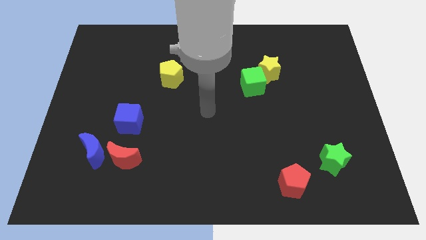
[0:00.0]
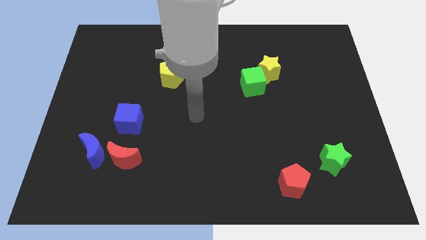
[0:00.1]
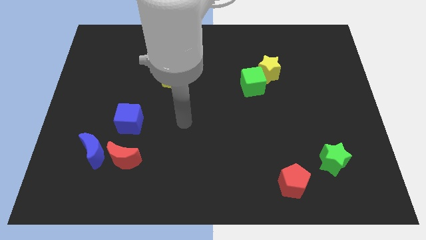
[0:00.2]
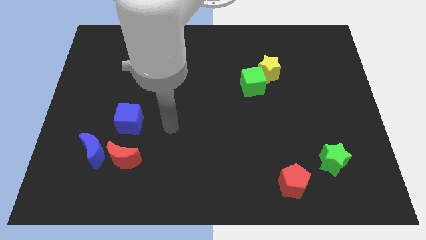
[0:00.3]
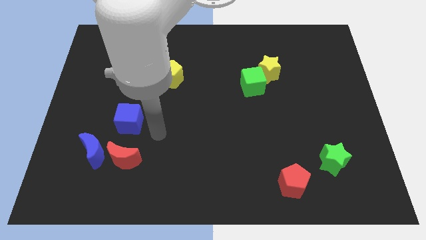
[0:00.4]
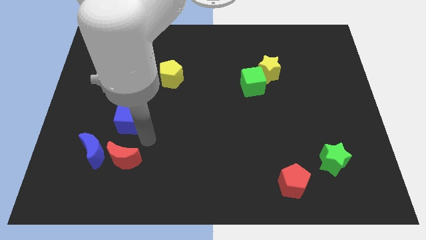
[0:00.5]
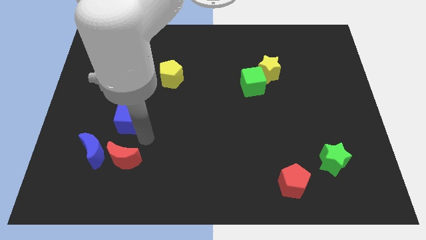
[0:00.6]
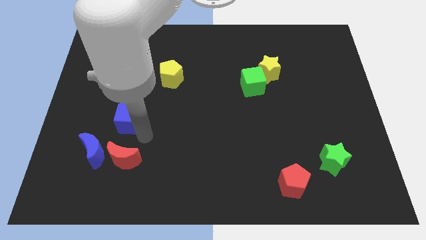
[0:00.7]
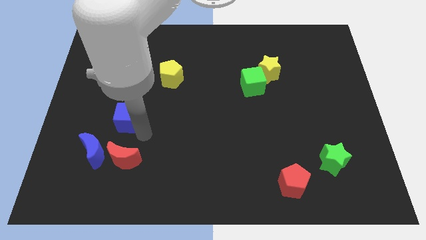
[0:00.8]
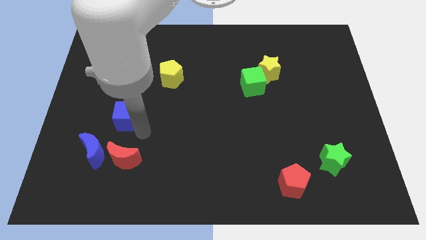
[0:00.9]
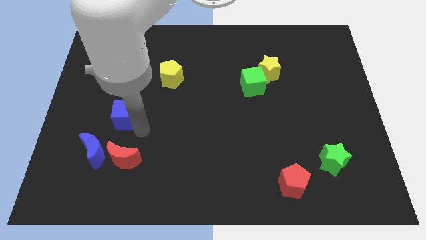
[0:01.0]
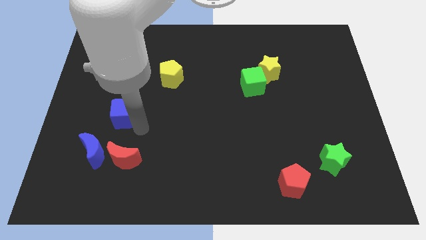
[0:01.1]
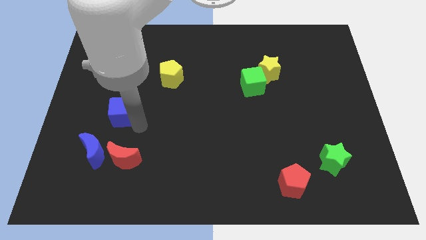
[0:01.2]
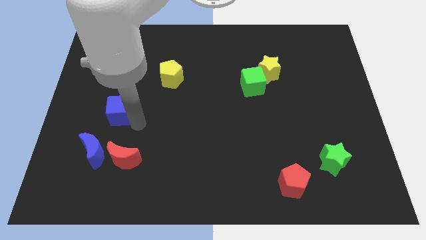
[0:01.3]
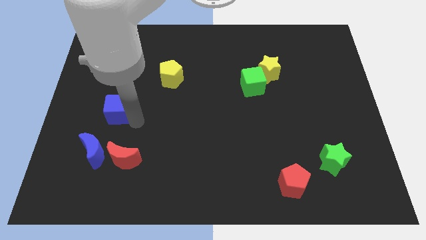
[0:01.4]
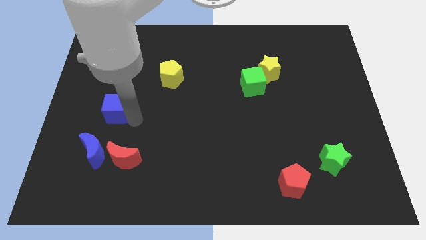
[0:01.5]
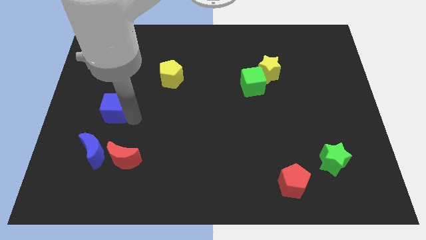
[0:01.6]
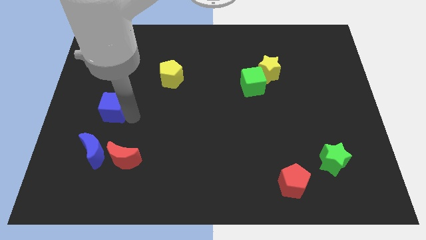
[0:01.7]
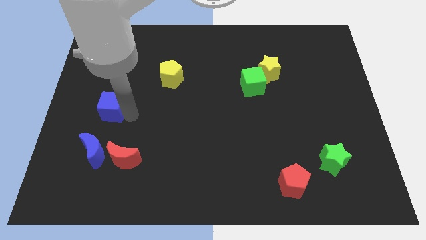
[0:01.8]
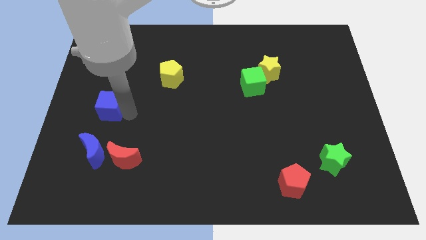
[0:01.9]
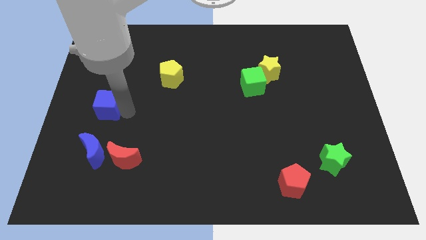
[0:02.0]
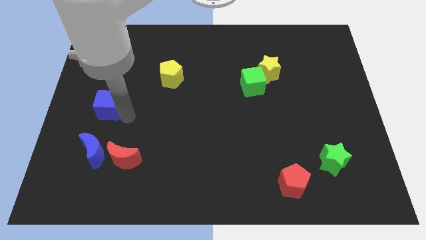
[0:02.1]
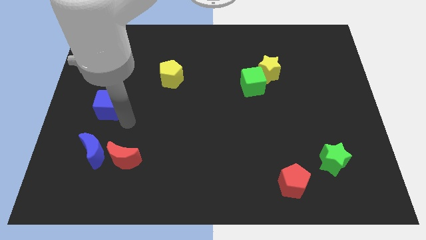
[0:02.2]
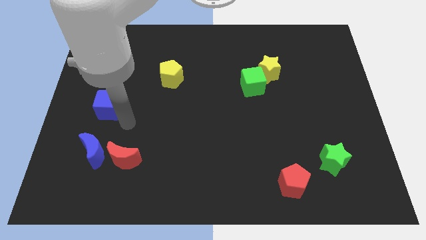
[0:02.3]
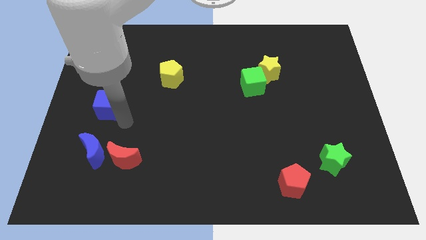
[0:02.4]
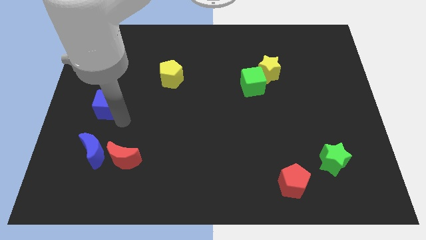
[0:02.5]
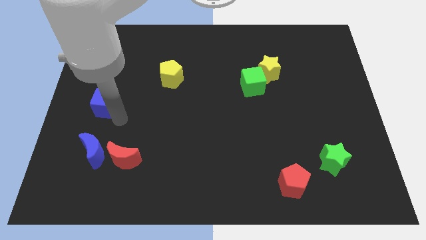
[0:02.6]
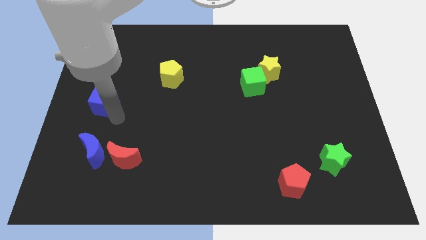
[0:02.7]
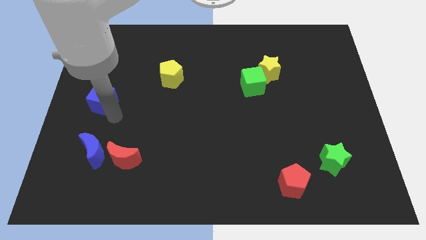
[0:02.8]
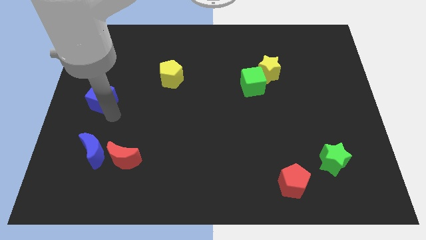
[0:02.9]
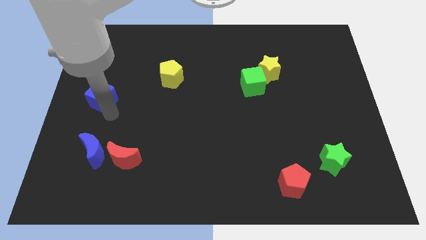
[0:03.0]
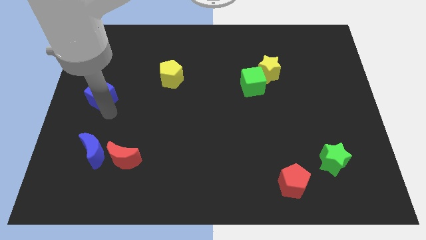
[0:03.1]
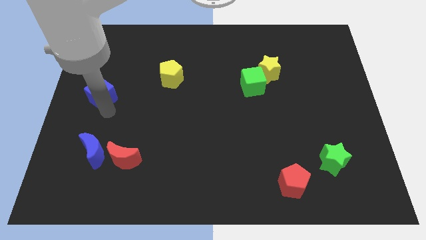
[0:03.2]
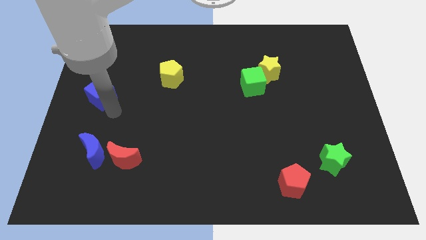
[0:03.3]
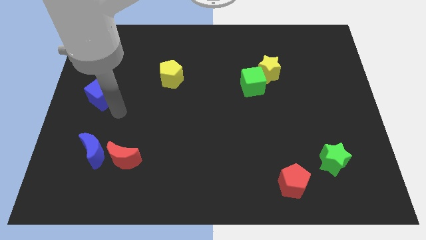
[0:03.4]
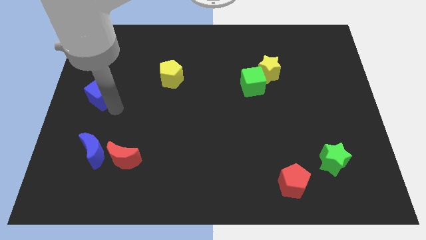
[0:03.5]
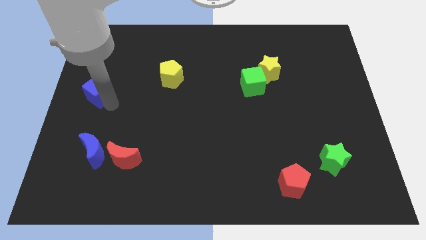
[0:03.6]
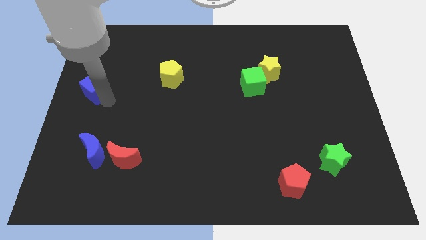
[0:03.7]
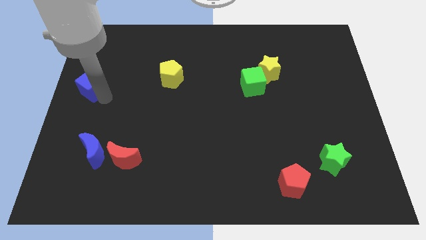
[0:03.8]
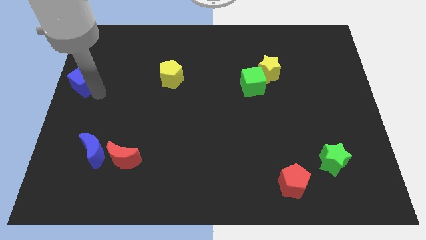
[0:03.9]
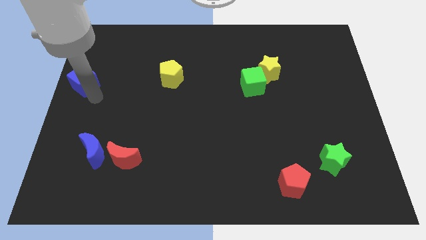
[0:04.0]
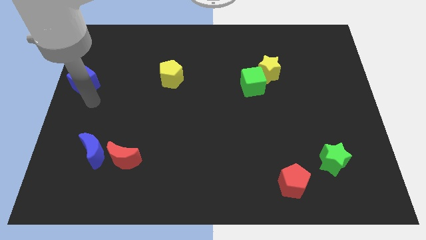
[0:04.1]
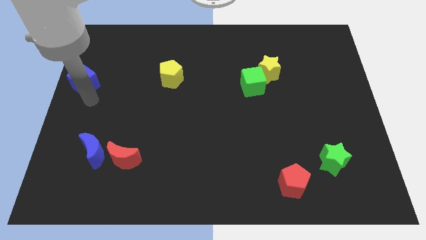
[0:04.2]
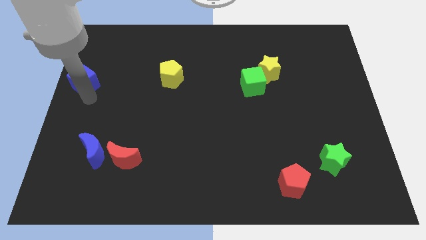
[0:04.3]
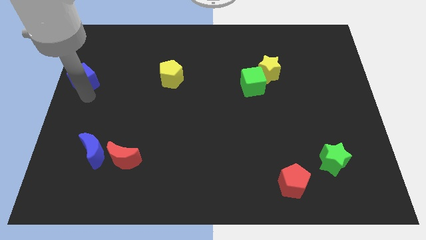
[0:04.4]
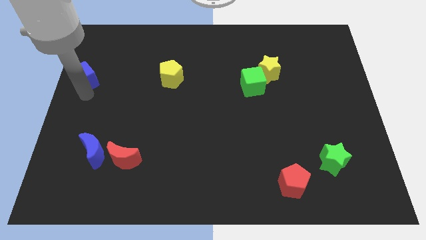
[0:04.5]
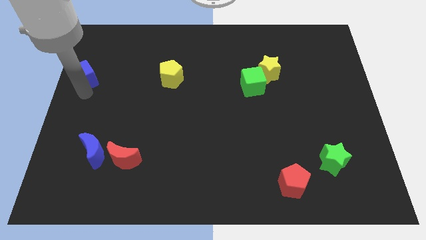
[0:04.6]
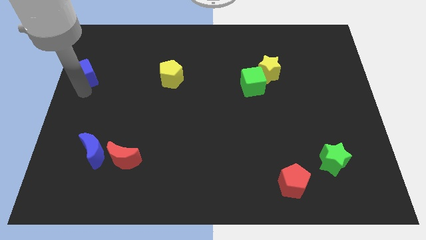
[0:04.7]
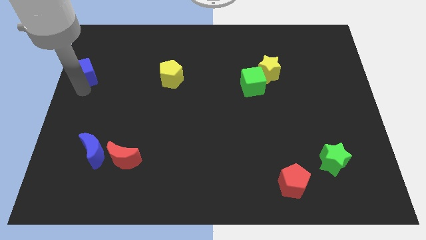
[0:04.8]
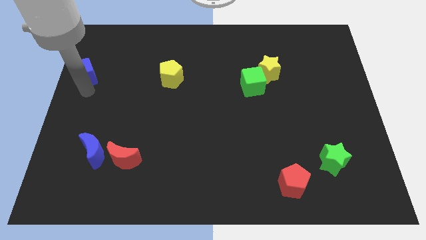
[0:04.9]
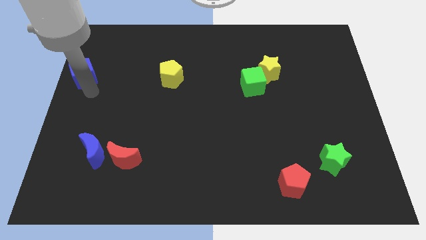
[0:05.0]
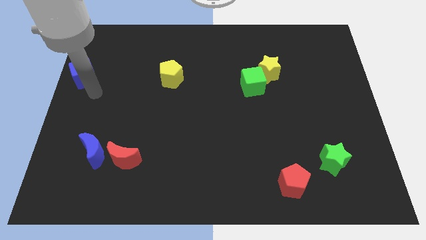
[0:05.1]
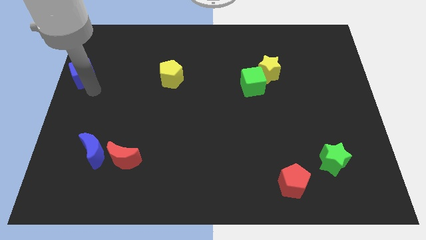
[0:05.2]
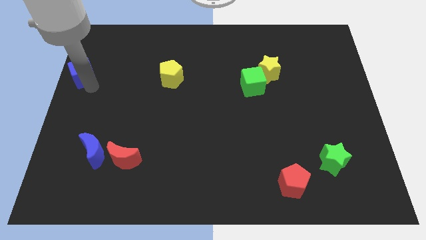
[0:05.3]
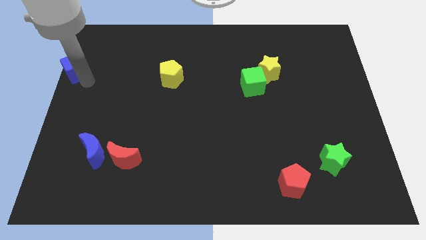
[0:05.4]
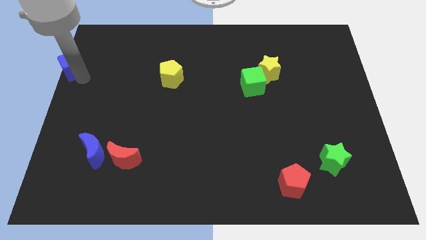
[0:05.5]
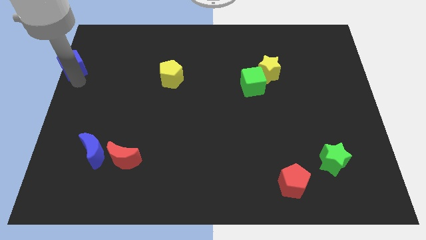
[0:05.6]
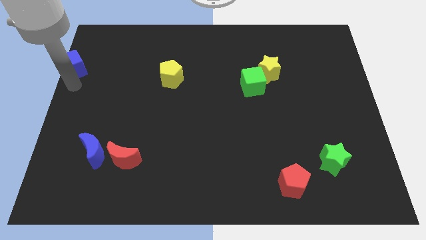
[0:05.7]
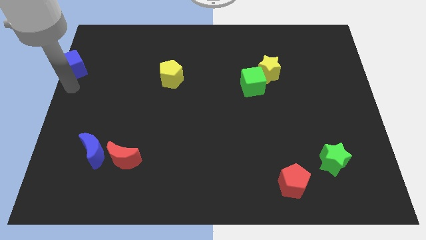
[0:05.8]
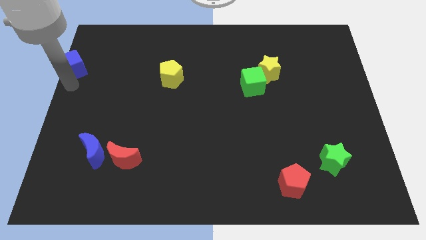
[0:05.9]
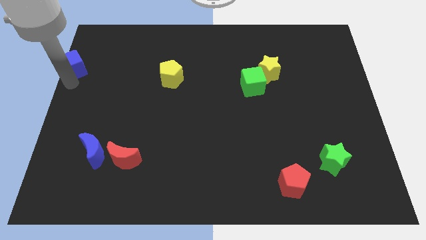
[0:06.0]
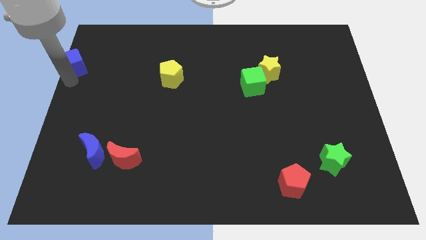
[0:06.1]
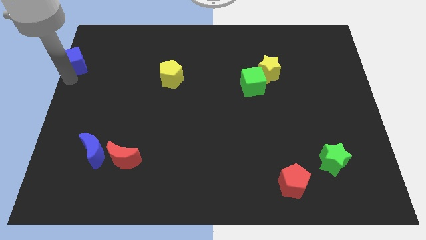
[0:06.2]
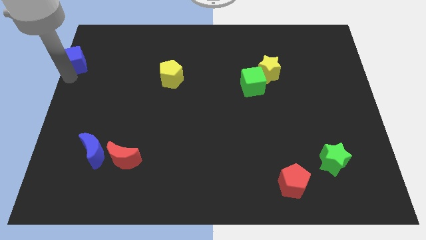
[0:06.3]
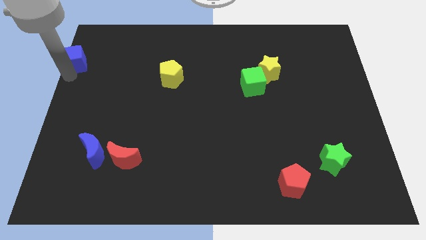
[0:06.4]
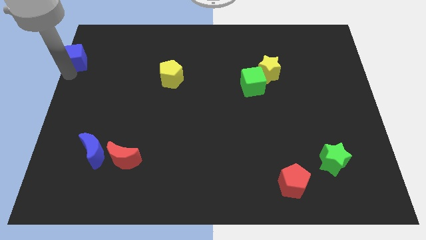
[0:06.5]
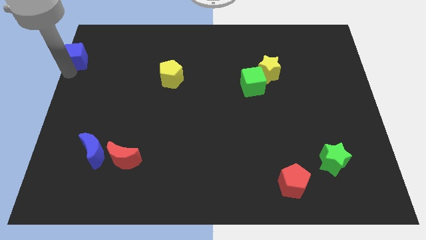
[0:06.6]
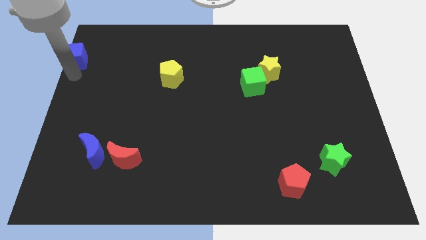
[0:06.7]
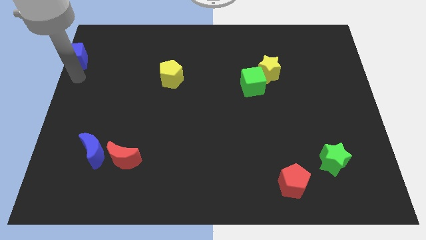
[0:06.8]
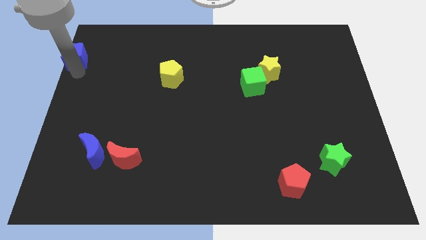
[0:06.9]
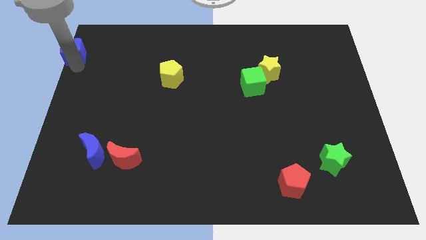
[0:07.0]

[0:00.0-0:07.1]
put the blue cube to the top left
